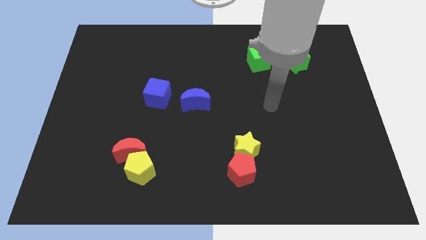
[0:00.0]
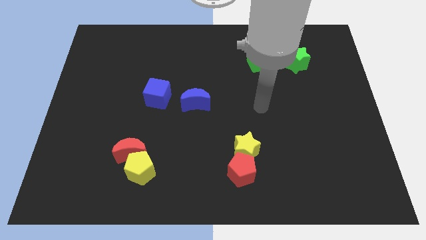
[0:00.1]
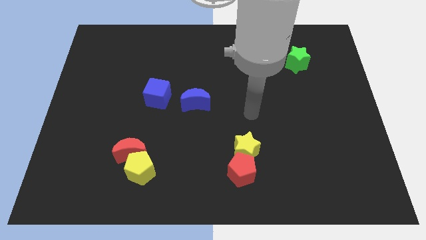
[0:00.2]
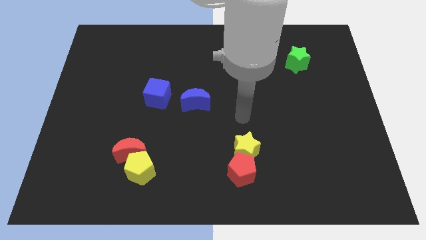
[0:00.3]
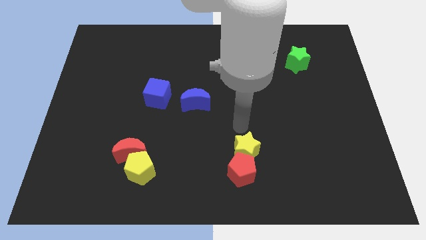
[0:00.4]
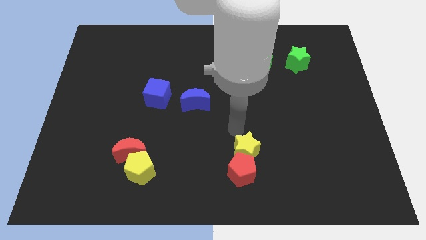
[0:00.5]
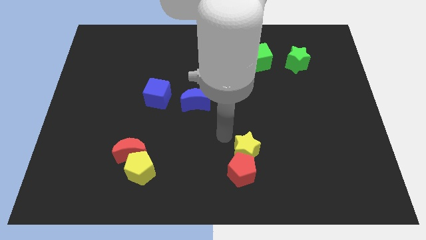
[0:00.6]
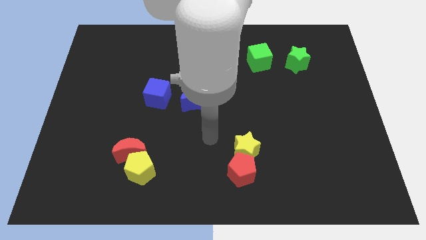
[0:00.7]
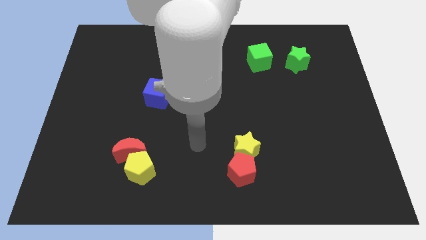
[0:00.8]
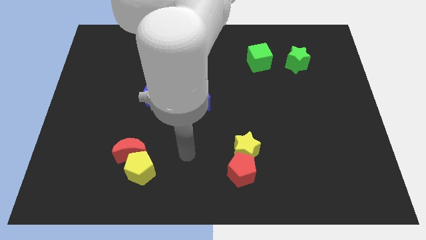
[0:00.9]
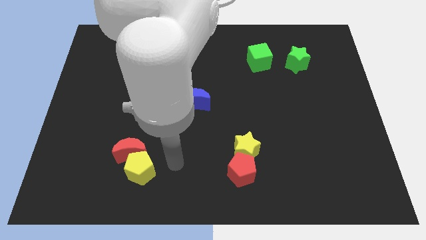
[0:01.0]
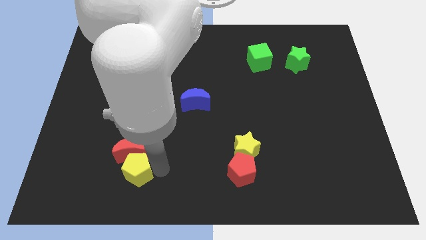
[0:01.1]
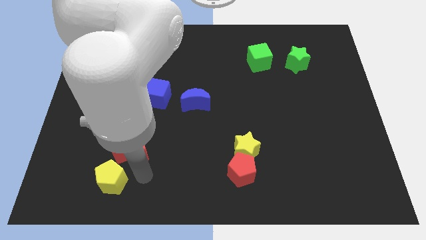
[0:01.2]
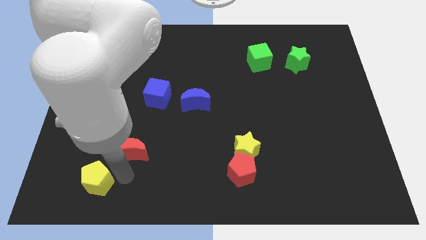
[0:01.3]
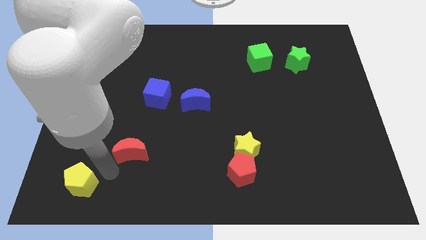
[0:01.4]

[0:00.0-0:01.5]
separate the red moon from the yellow pentagon

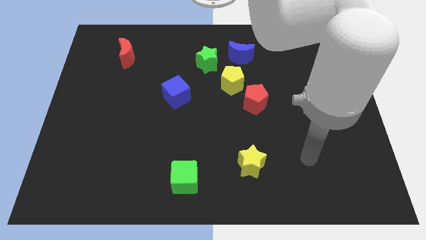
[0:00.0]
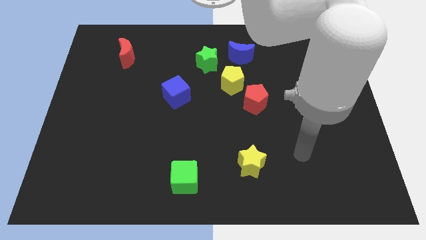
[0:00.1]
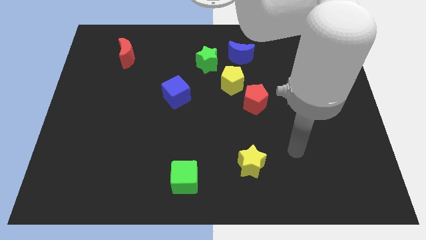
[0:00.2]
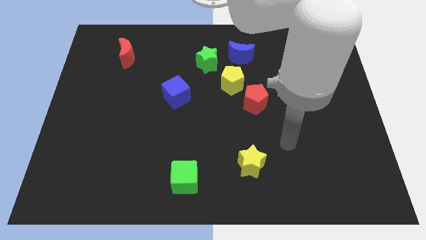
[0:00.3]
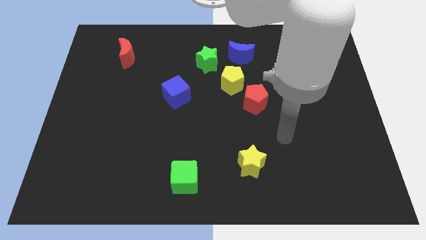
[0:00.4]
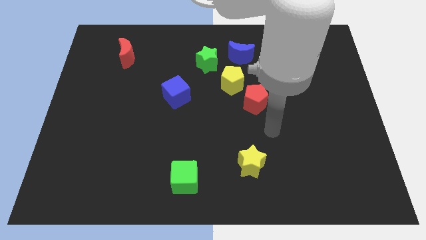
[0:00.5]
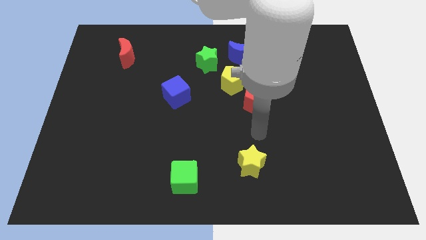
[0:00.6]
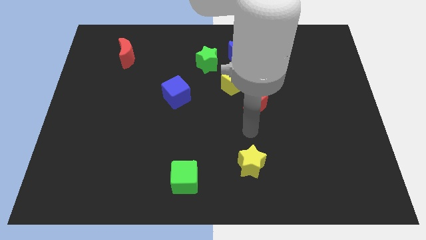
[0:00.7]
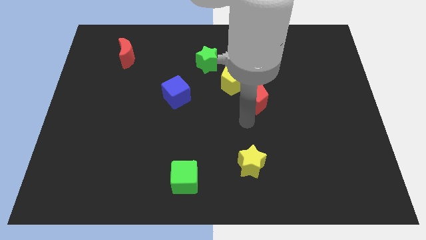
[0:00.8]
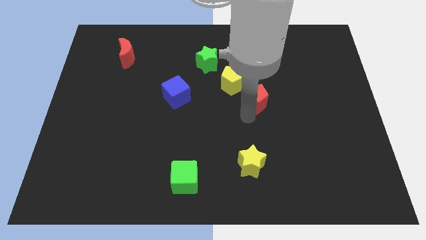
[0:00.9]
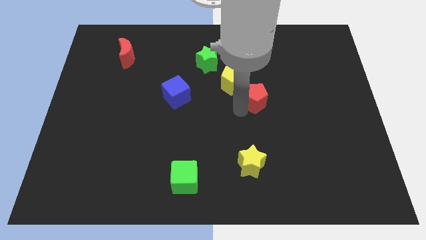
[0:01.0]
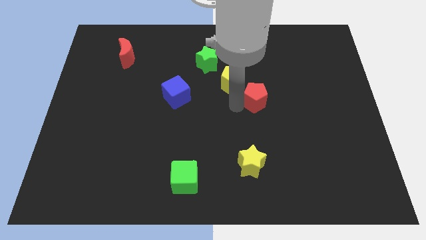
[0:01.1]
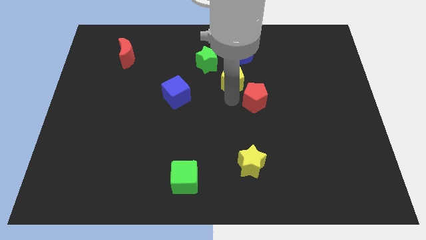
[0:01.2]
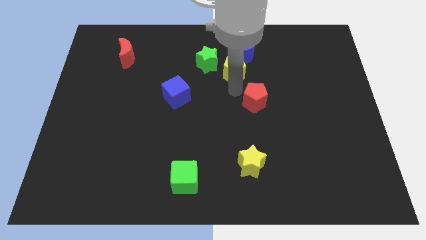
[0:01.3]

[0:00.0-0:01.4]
pull the red pentagon apart from the yellow pentagon

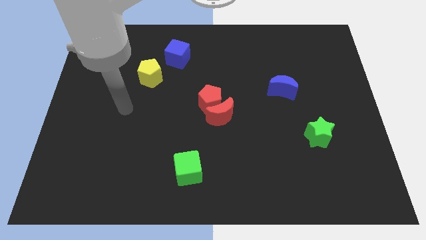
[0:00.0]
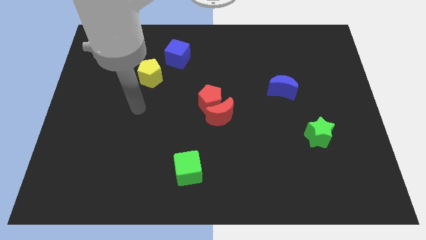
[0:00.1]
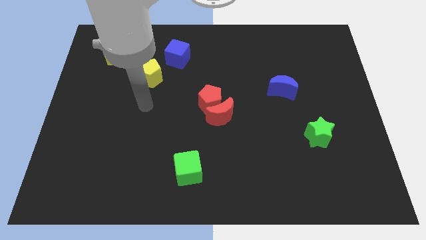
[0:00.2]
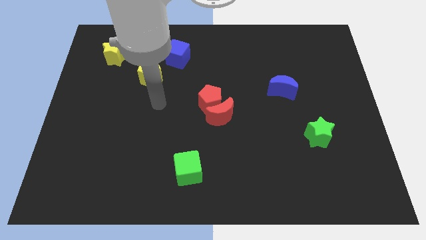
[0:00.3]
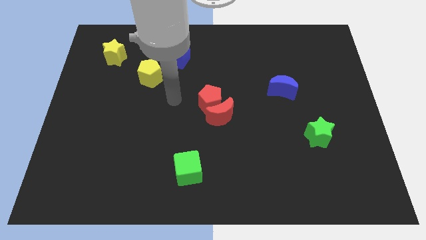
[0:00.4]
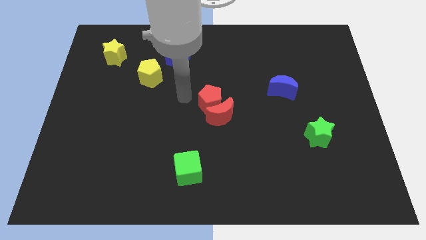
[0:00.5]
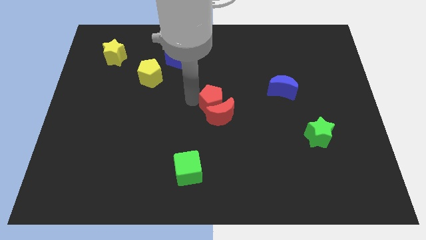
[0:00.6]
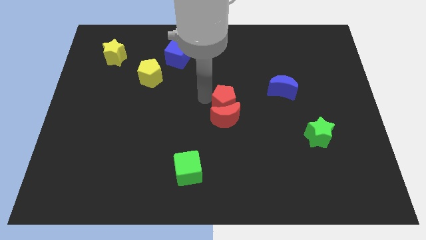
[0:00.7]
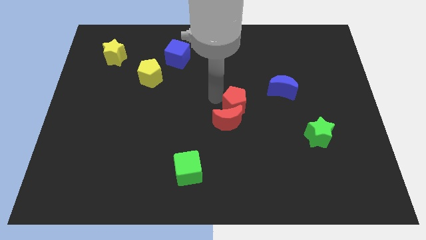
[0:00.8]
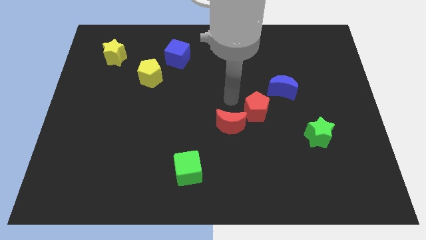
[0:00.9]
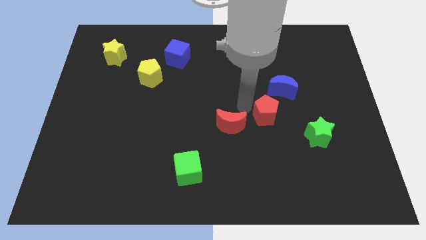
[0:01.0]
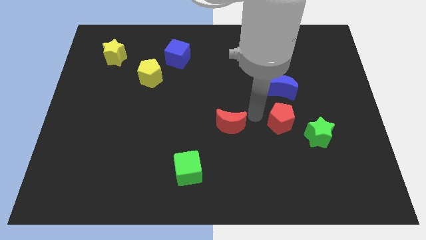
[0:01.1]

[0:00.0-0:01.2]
move the red moon away from the red pentagon

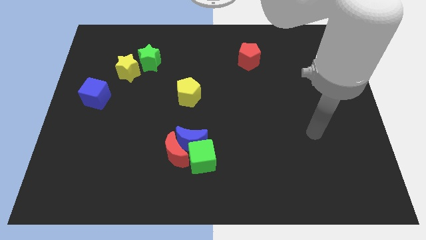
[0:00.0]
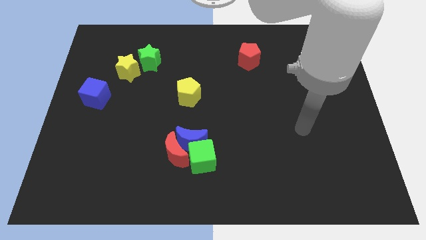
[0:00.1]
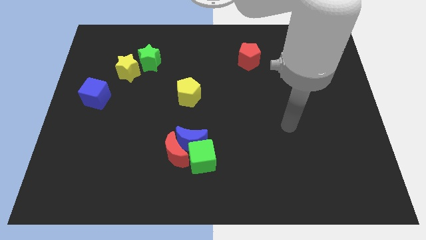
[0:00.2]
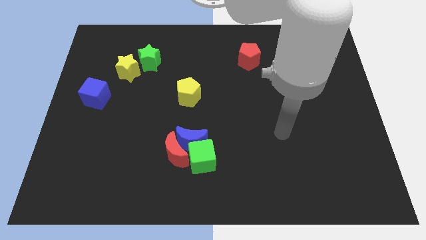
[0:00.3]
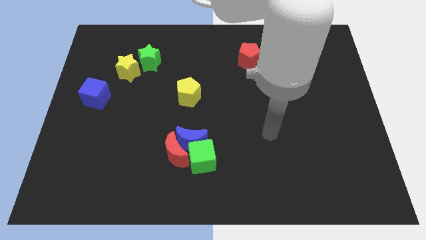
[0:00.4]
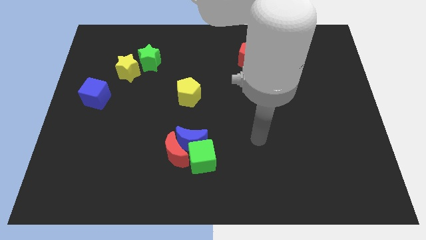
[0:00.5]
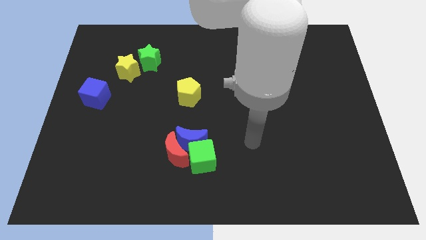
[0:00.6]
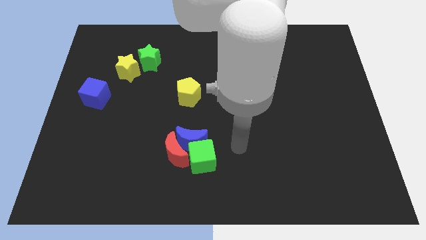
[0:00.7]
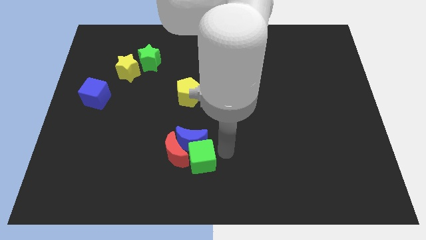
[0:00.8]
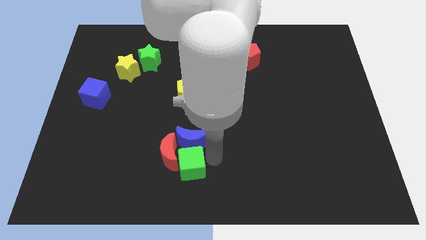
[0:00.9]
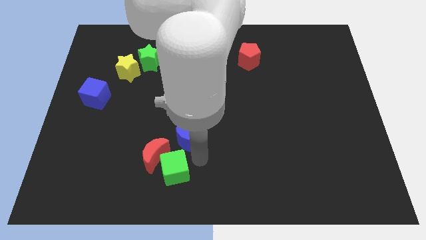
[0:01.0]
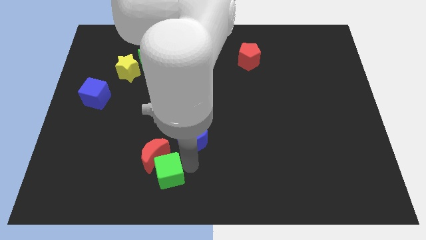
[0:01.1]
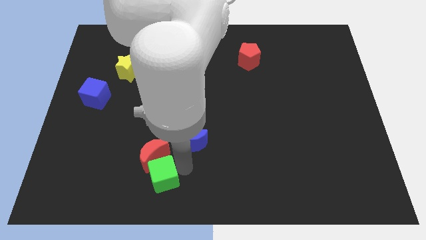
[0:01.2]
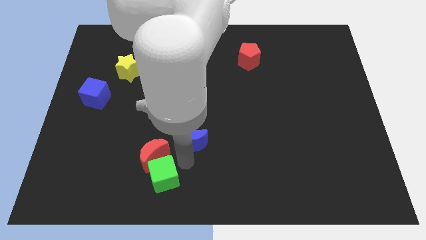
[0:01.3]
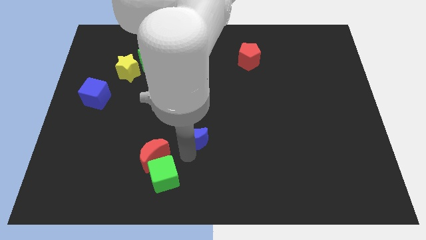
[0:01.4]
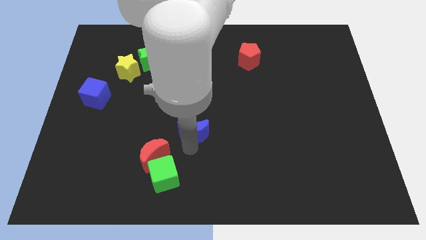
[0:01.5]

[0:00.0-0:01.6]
separate the blue moon from the red moon and green cube

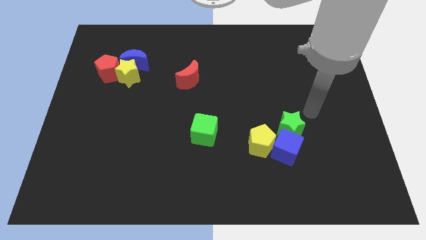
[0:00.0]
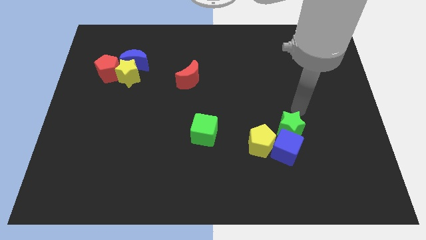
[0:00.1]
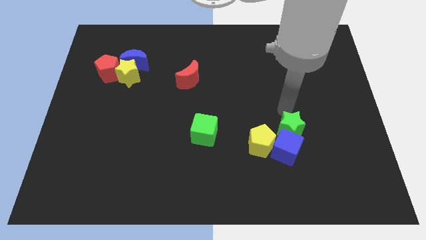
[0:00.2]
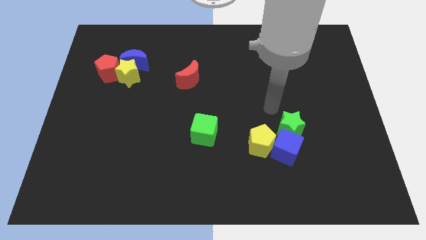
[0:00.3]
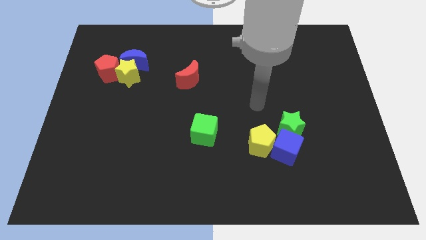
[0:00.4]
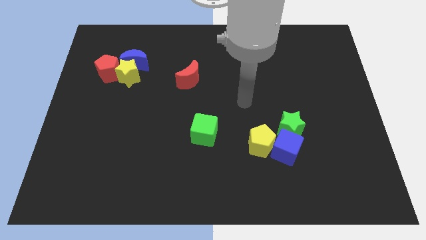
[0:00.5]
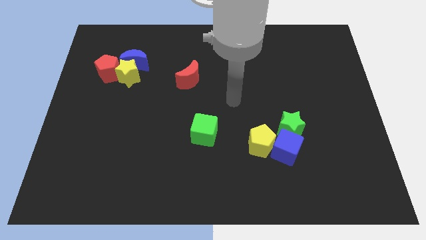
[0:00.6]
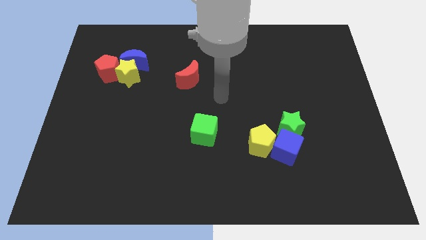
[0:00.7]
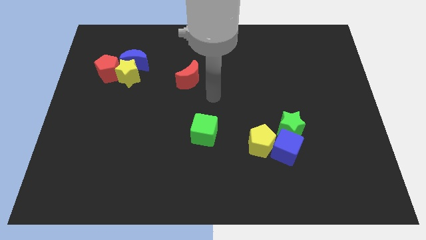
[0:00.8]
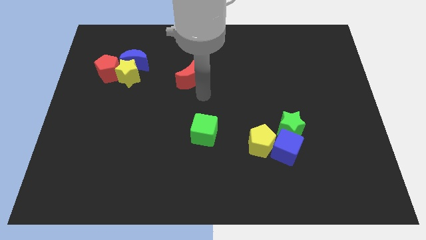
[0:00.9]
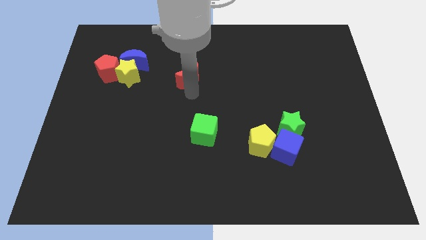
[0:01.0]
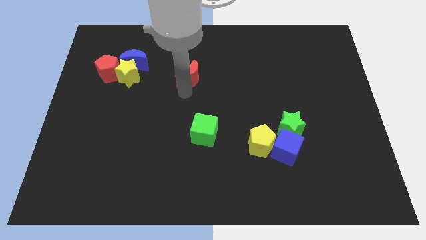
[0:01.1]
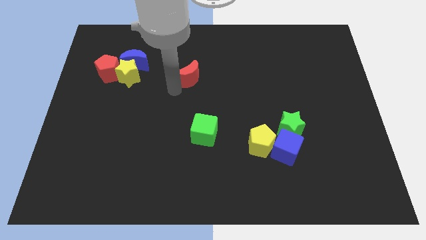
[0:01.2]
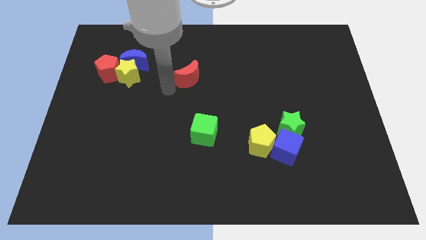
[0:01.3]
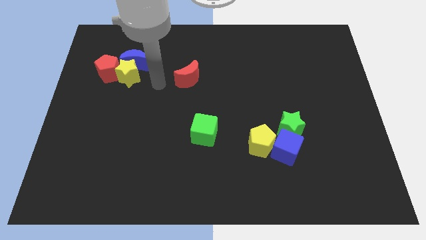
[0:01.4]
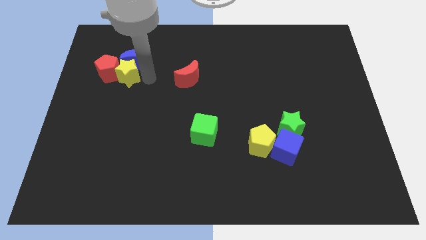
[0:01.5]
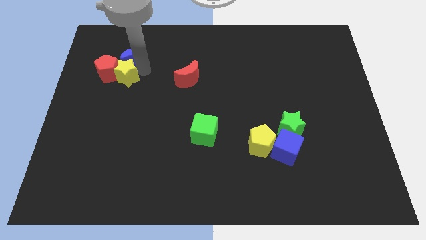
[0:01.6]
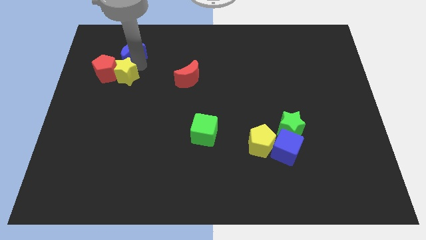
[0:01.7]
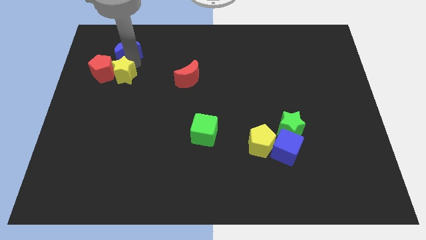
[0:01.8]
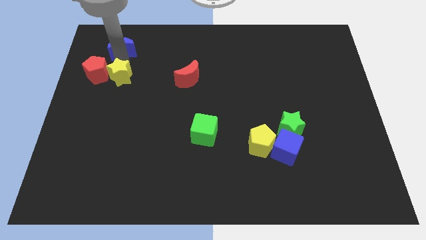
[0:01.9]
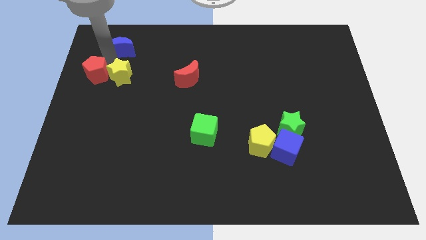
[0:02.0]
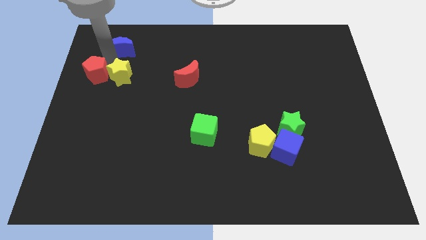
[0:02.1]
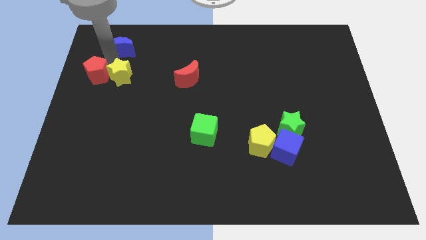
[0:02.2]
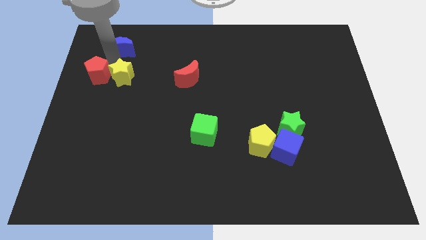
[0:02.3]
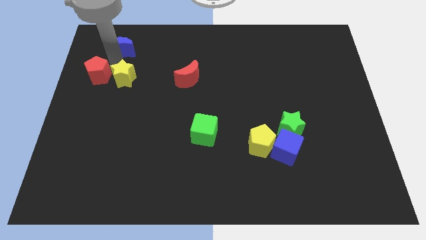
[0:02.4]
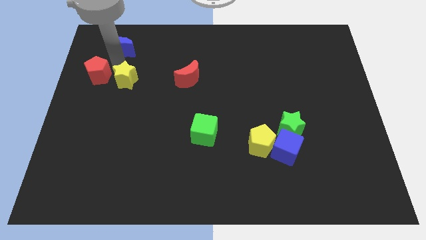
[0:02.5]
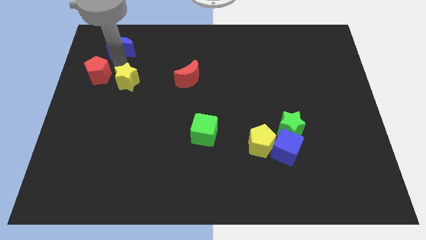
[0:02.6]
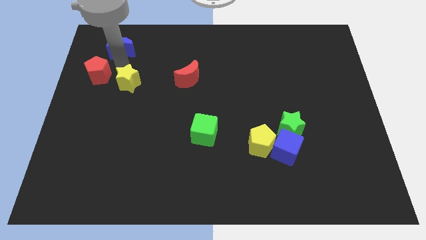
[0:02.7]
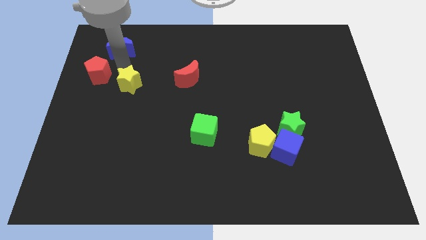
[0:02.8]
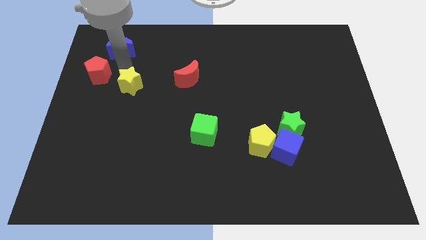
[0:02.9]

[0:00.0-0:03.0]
move the yellow star away from the blue moon and red pentagon

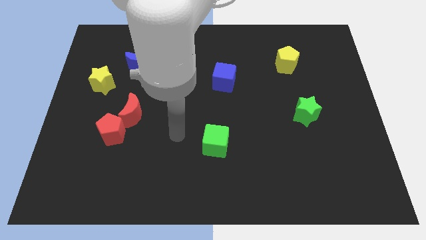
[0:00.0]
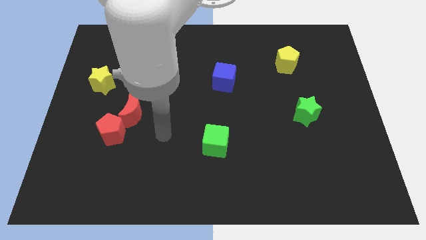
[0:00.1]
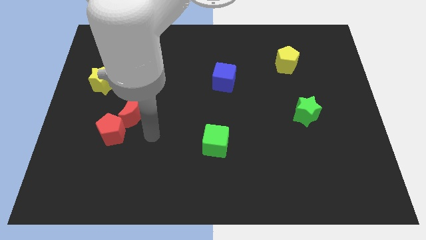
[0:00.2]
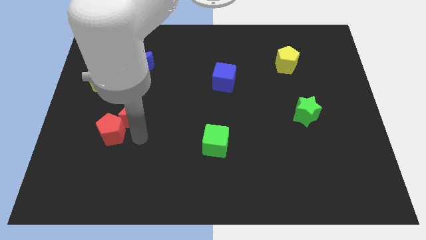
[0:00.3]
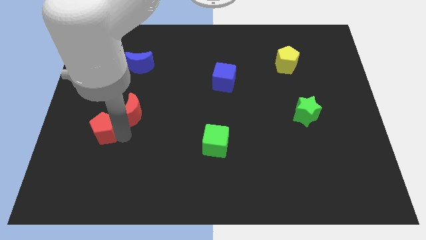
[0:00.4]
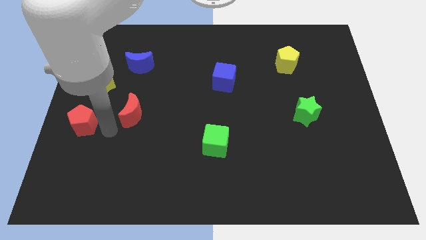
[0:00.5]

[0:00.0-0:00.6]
separate the red moon from the red pentagon
